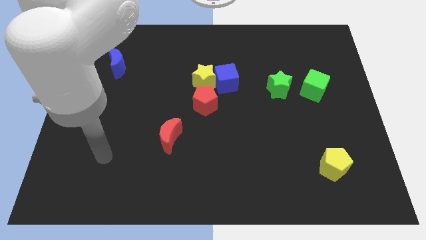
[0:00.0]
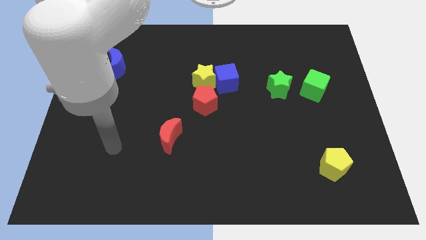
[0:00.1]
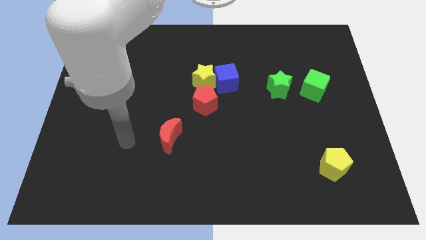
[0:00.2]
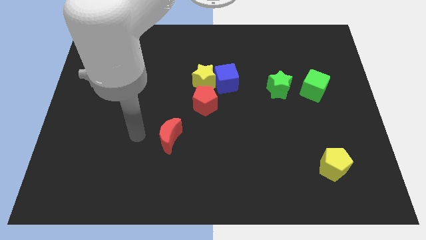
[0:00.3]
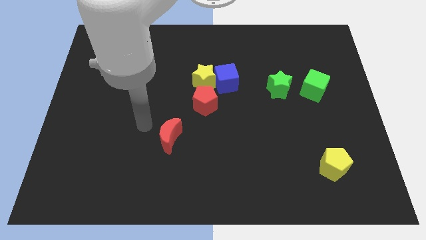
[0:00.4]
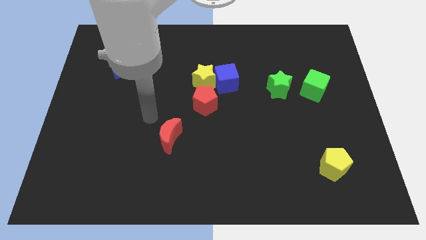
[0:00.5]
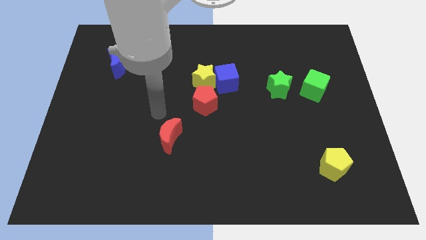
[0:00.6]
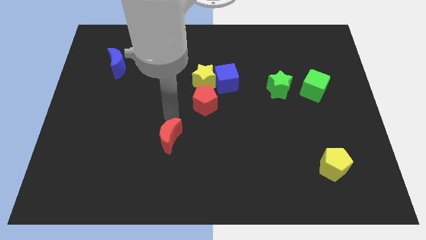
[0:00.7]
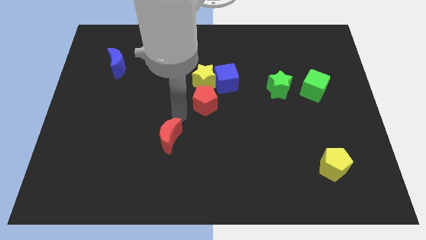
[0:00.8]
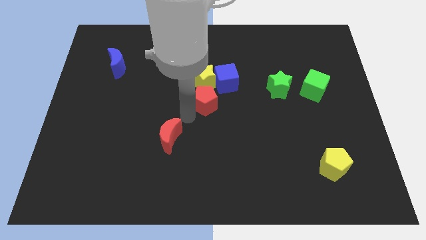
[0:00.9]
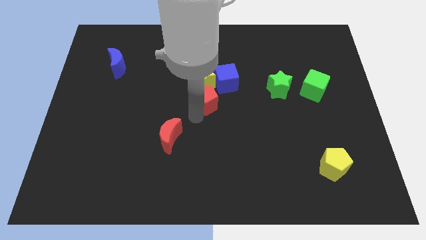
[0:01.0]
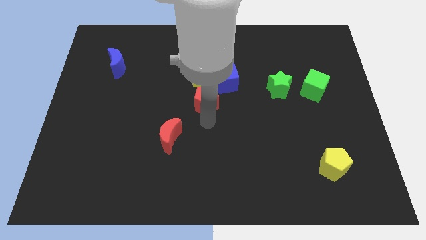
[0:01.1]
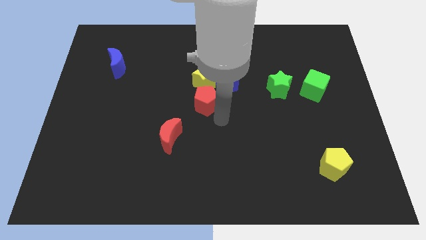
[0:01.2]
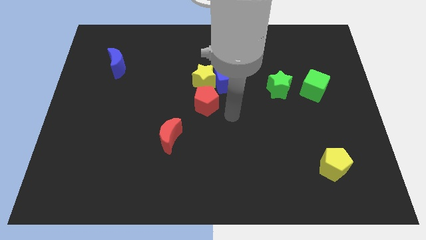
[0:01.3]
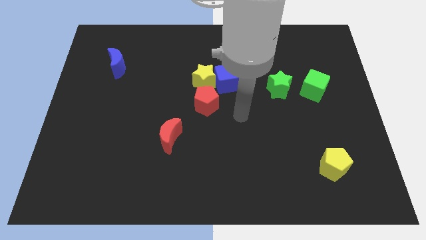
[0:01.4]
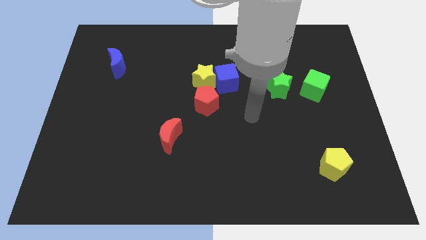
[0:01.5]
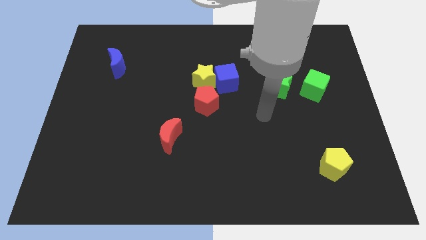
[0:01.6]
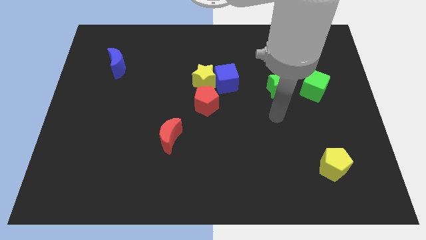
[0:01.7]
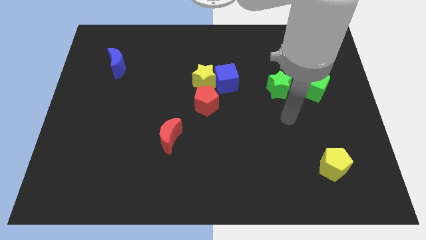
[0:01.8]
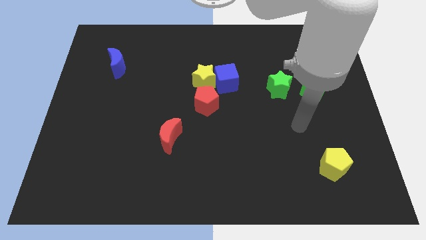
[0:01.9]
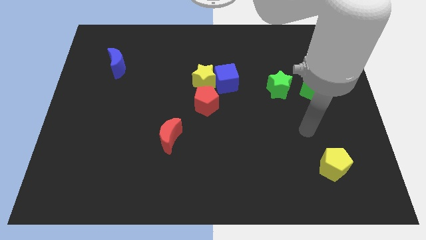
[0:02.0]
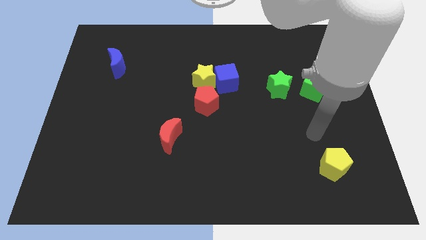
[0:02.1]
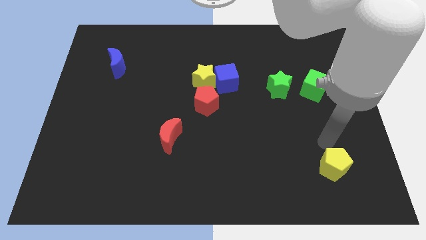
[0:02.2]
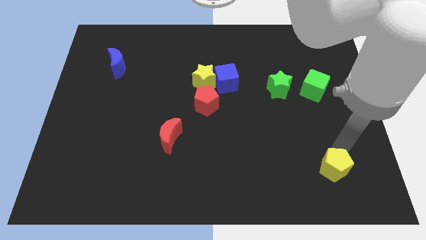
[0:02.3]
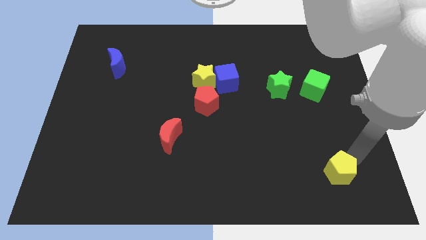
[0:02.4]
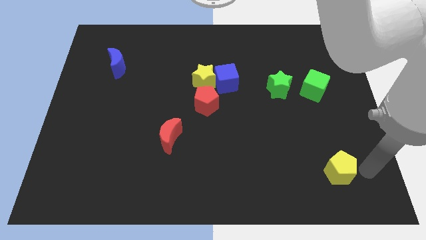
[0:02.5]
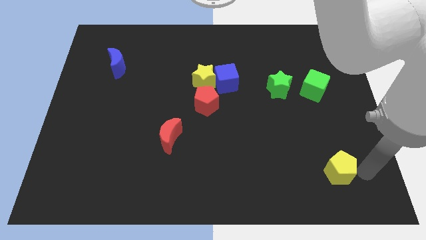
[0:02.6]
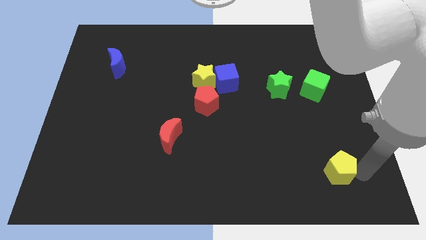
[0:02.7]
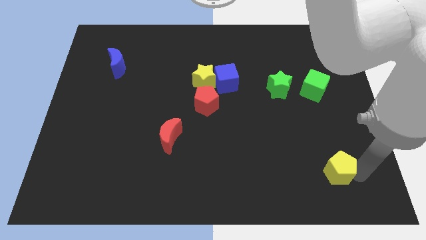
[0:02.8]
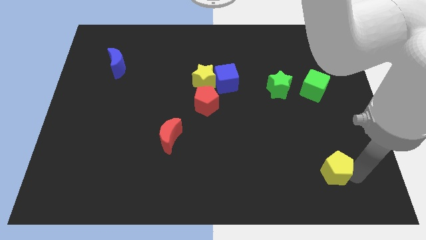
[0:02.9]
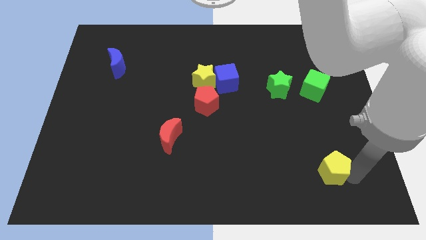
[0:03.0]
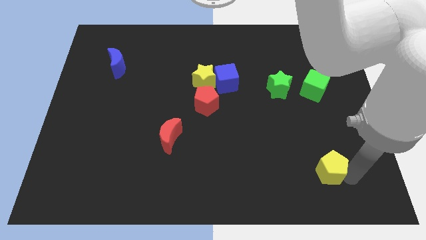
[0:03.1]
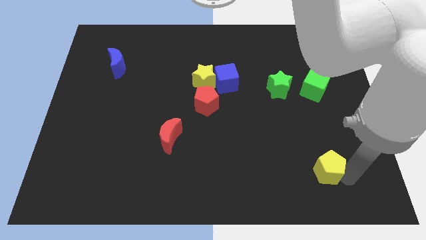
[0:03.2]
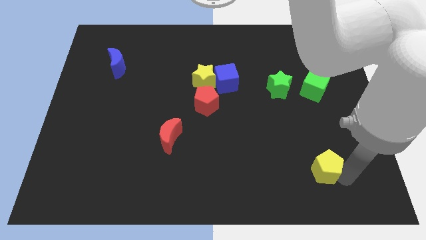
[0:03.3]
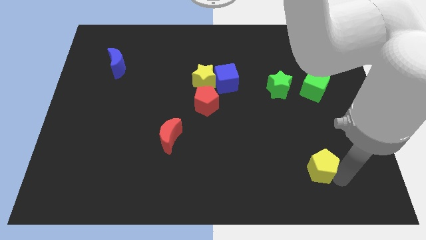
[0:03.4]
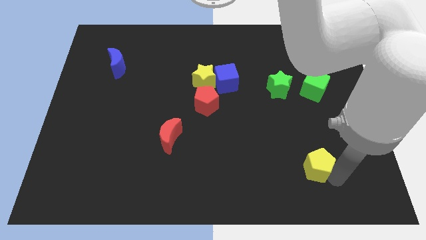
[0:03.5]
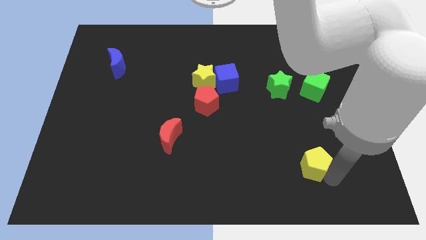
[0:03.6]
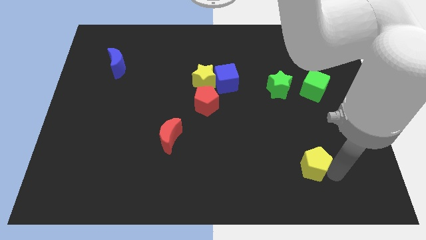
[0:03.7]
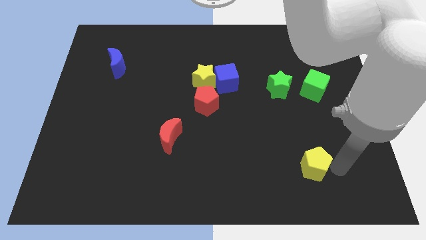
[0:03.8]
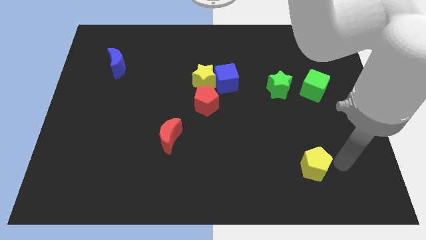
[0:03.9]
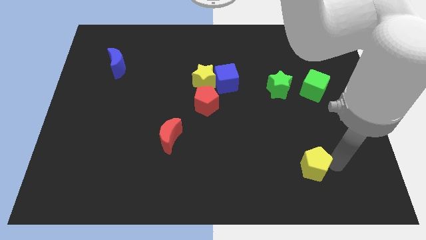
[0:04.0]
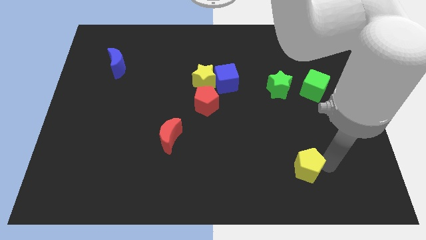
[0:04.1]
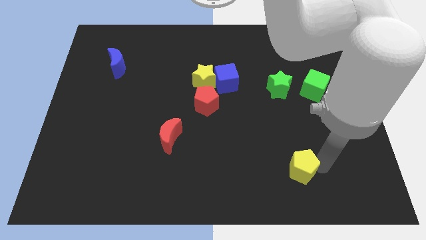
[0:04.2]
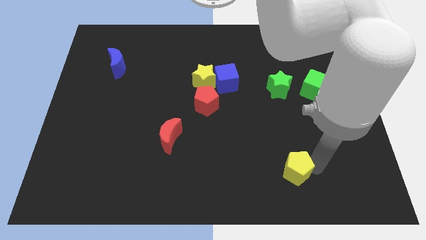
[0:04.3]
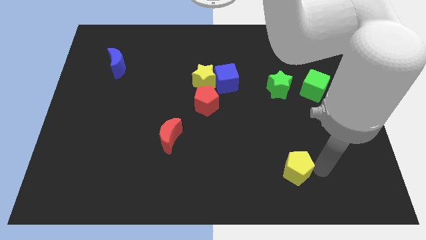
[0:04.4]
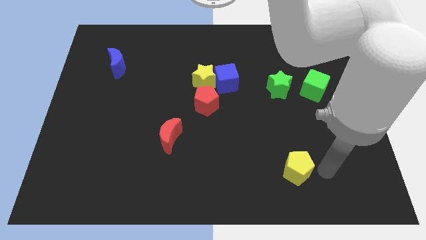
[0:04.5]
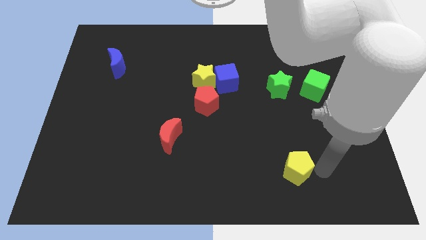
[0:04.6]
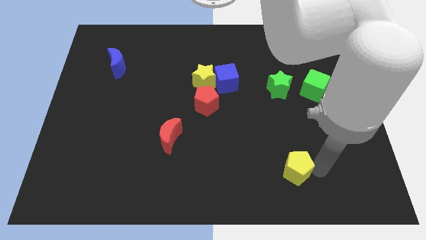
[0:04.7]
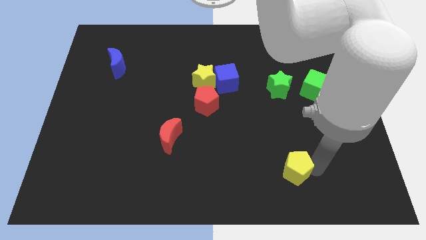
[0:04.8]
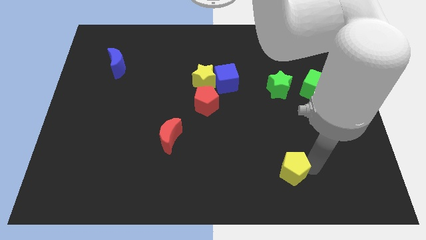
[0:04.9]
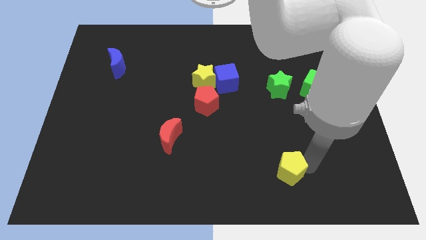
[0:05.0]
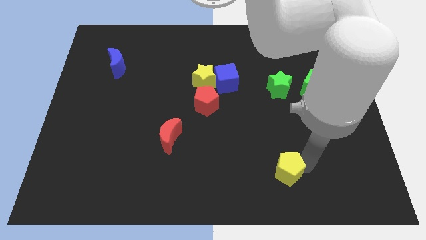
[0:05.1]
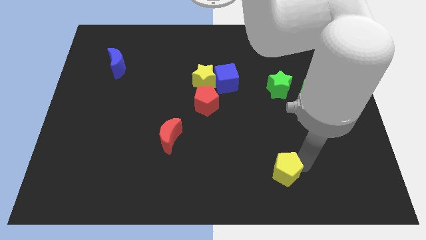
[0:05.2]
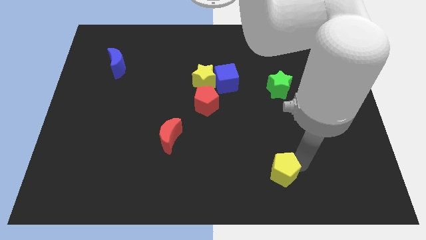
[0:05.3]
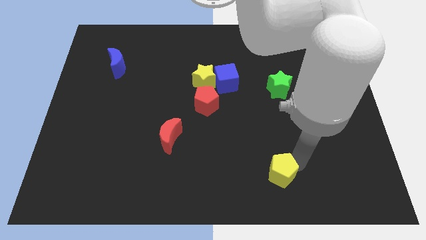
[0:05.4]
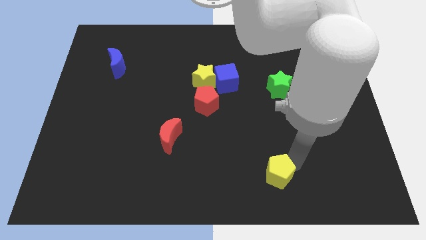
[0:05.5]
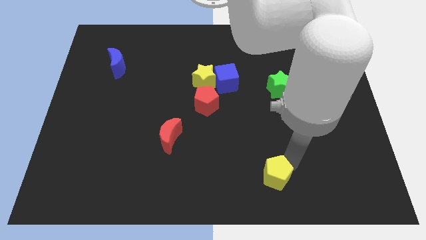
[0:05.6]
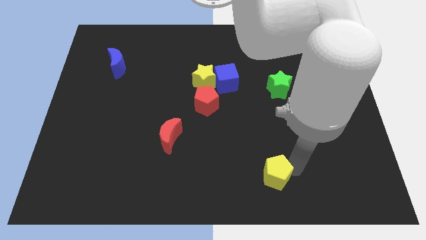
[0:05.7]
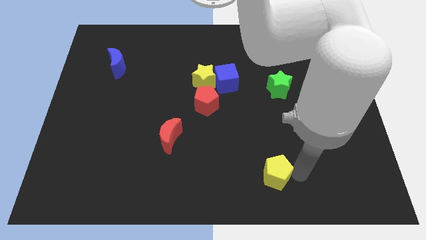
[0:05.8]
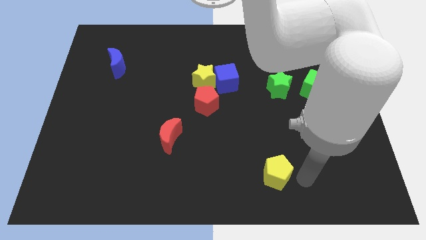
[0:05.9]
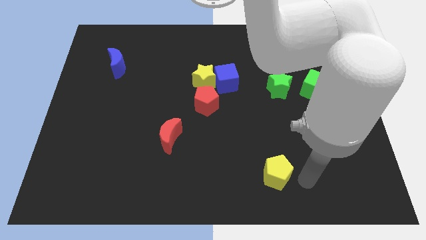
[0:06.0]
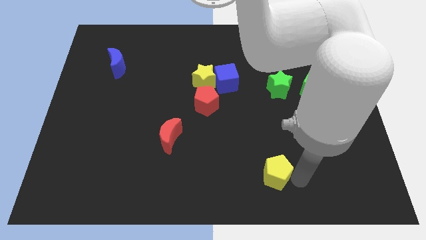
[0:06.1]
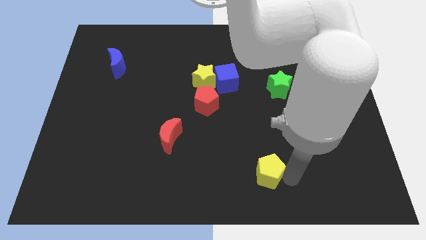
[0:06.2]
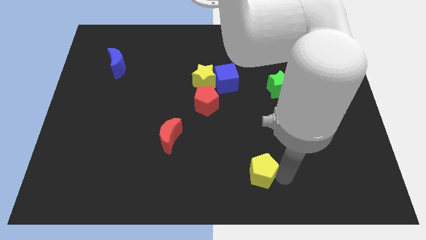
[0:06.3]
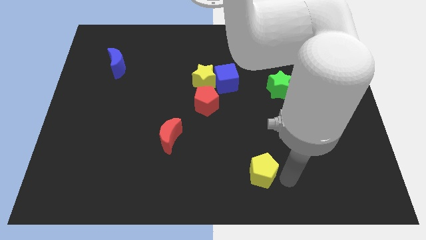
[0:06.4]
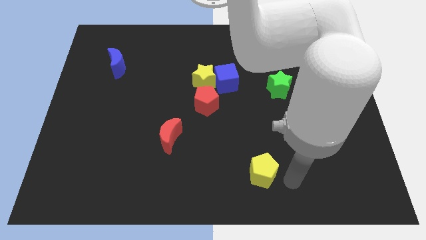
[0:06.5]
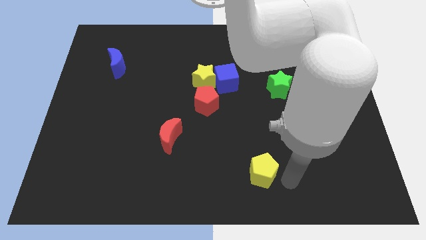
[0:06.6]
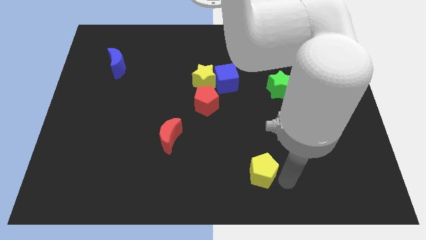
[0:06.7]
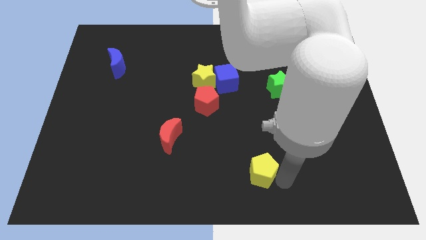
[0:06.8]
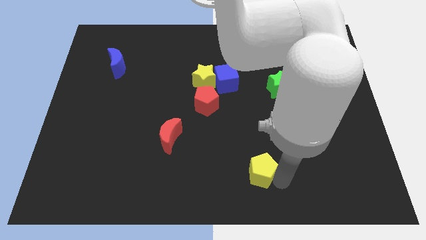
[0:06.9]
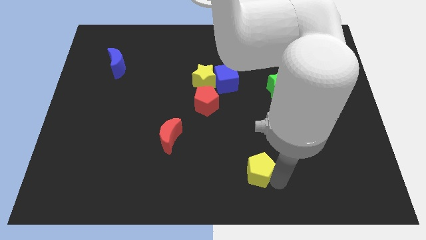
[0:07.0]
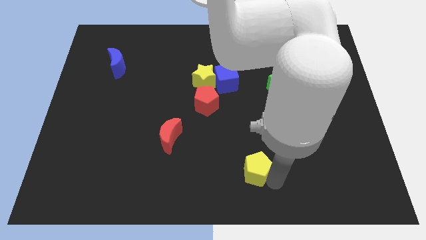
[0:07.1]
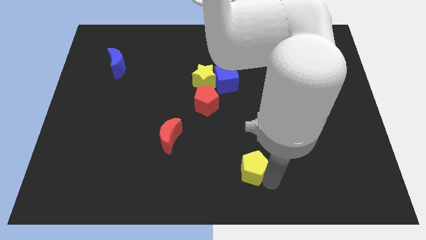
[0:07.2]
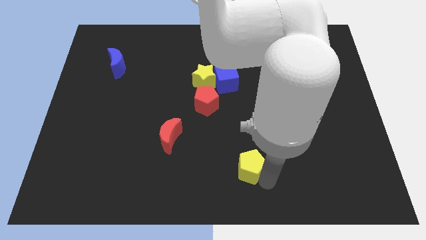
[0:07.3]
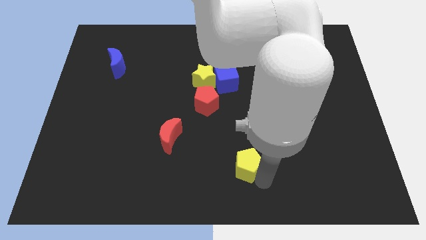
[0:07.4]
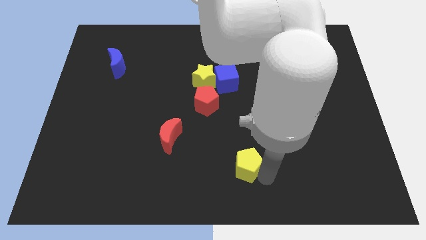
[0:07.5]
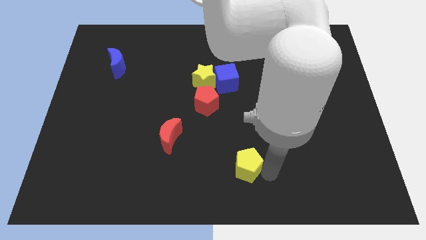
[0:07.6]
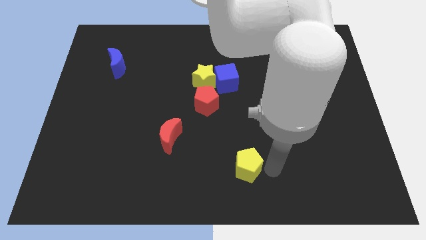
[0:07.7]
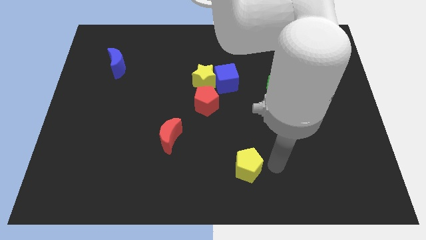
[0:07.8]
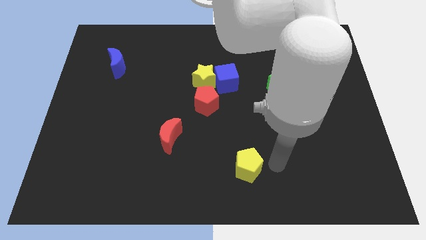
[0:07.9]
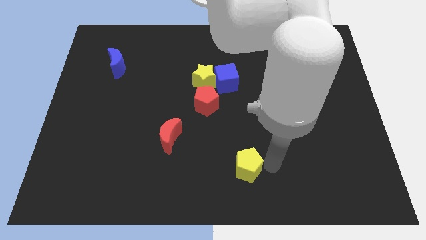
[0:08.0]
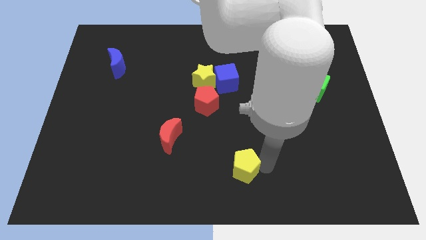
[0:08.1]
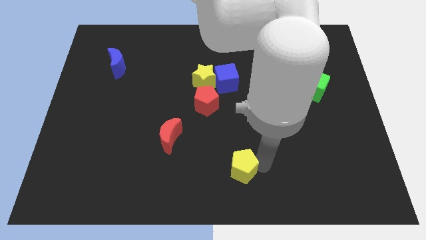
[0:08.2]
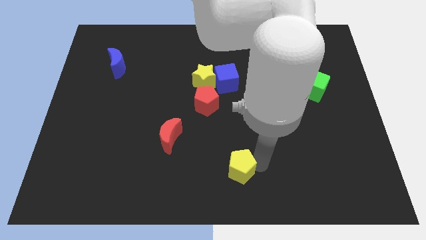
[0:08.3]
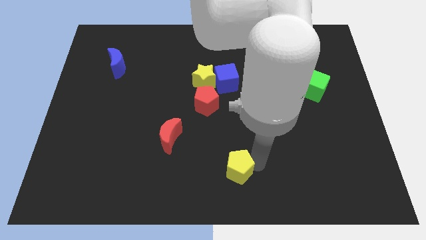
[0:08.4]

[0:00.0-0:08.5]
slide the yellow pentagon to the left
